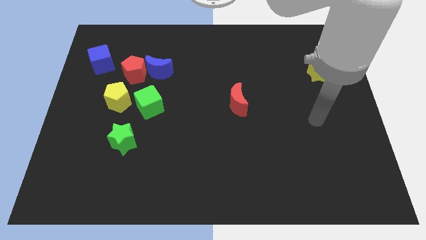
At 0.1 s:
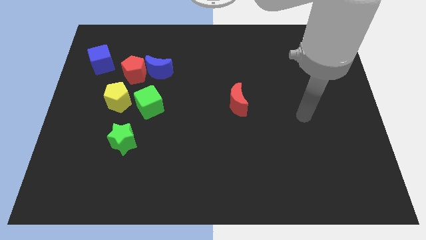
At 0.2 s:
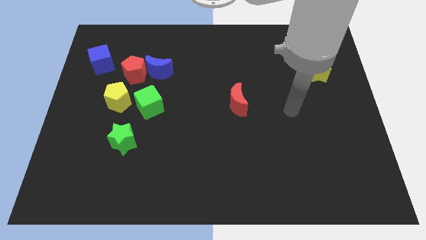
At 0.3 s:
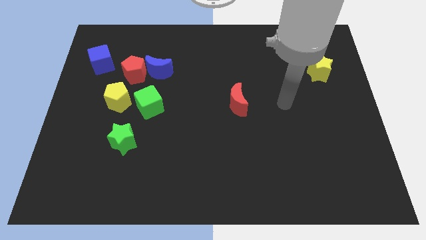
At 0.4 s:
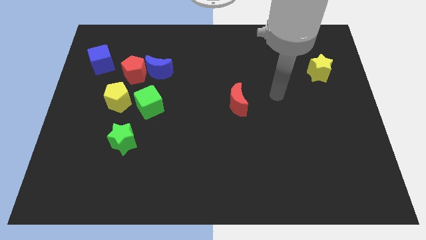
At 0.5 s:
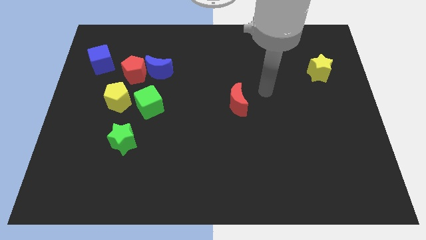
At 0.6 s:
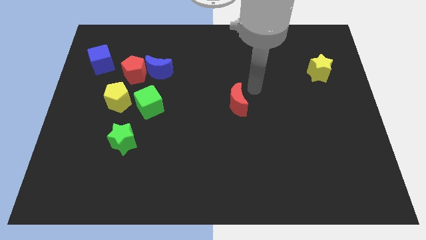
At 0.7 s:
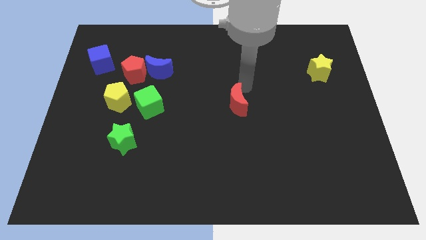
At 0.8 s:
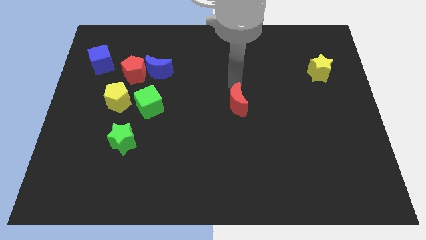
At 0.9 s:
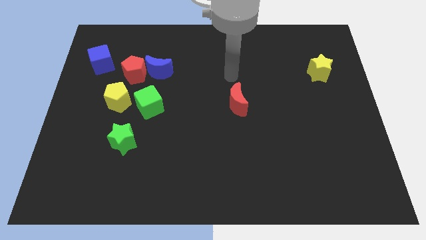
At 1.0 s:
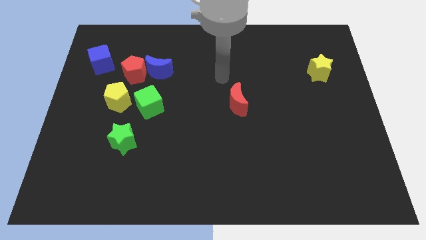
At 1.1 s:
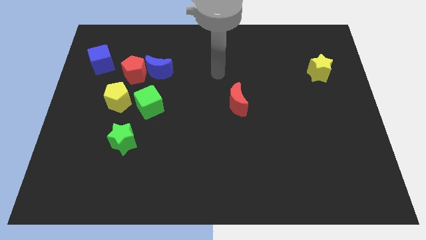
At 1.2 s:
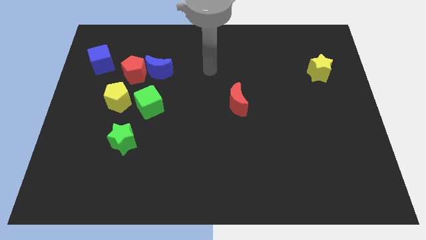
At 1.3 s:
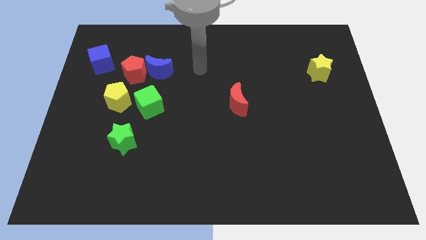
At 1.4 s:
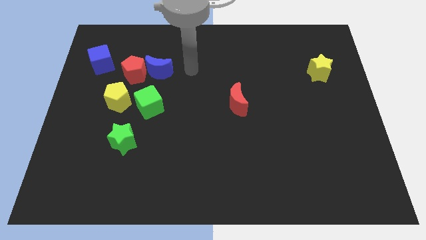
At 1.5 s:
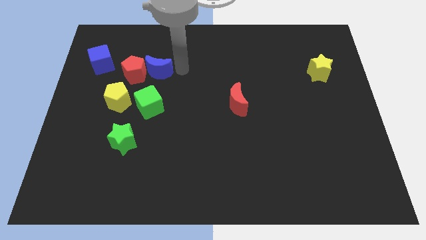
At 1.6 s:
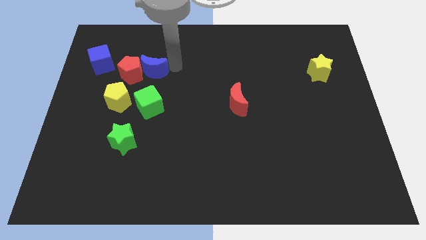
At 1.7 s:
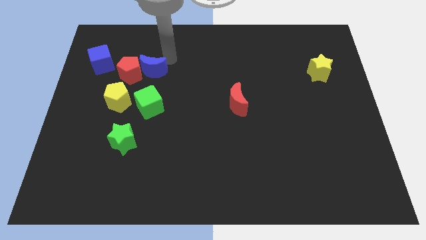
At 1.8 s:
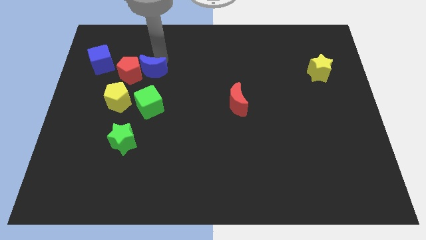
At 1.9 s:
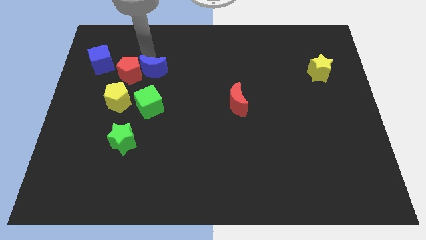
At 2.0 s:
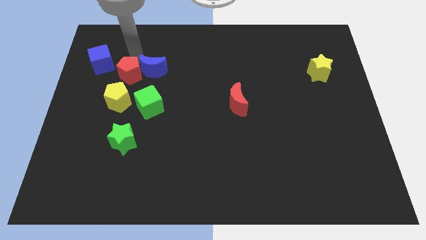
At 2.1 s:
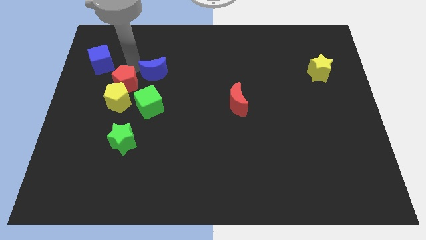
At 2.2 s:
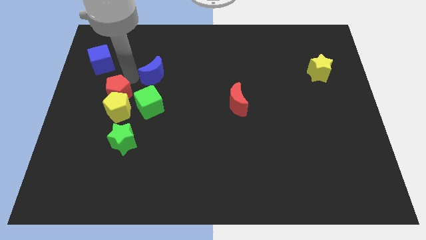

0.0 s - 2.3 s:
pull the blue moon apart from the red pentagon

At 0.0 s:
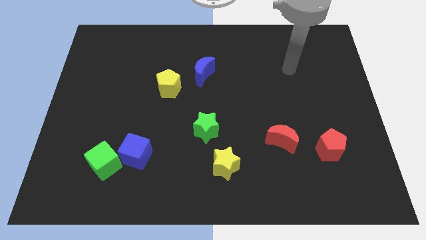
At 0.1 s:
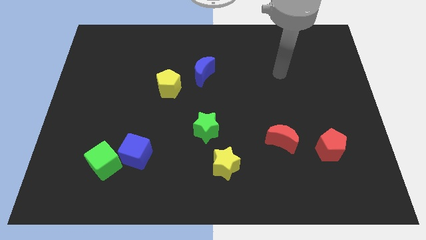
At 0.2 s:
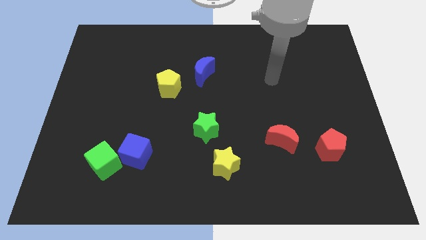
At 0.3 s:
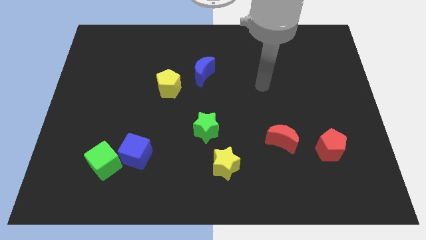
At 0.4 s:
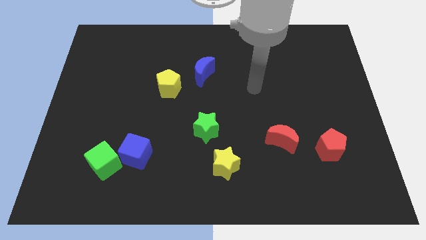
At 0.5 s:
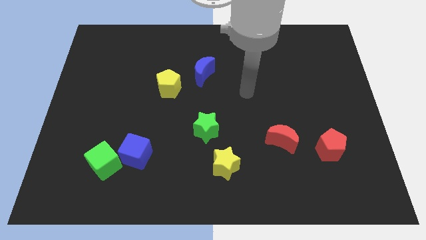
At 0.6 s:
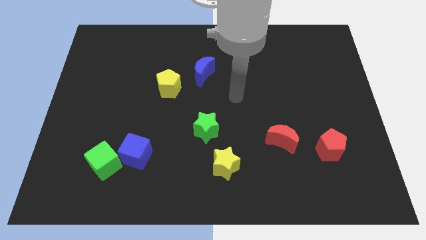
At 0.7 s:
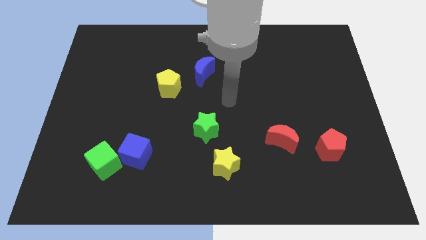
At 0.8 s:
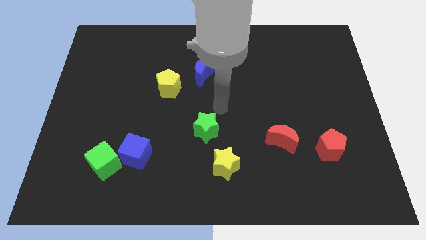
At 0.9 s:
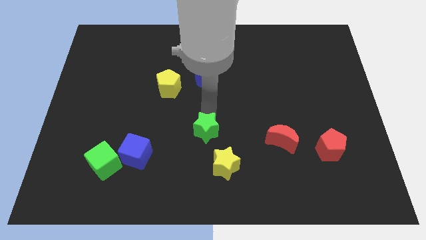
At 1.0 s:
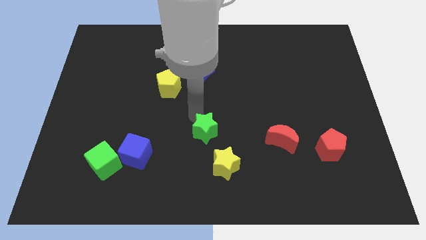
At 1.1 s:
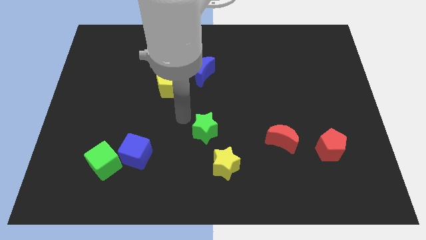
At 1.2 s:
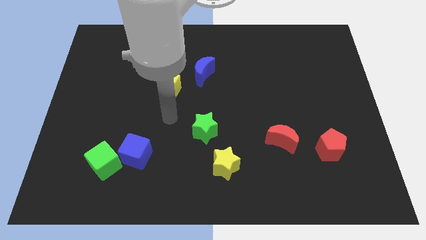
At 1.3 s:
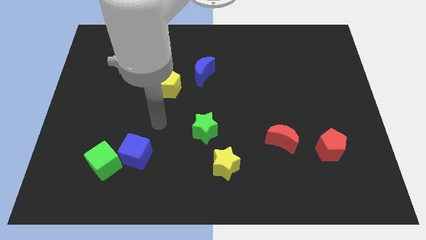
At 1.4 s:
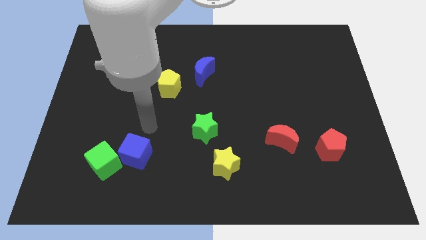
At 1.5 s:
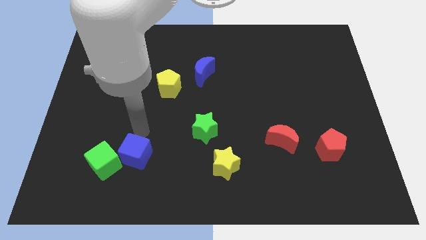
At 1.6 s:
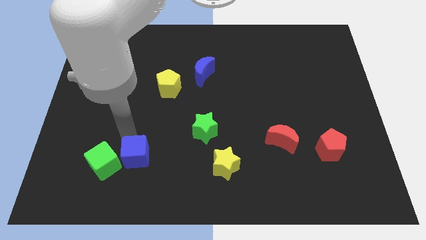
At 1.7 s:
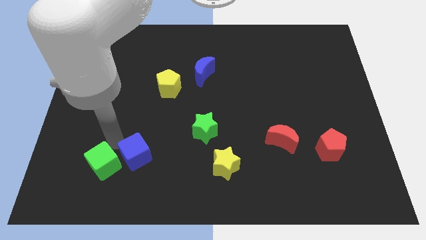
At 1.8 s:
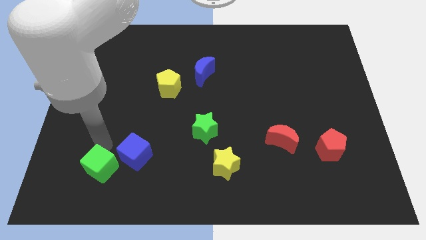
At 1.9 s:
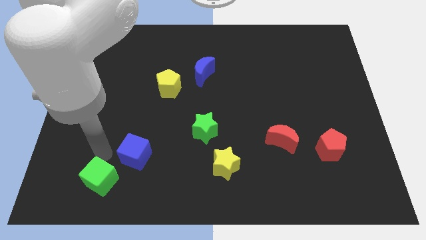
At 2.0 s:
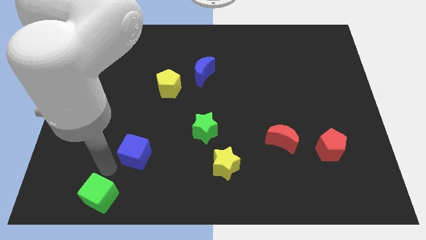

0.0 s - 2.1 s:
separate the blue cube from the green cube

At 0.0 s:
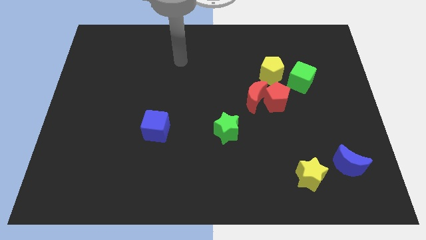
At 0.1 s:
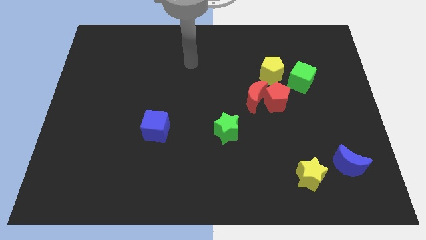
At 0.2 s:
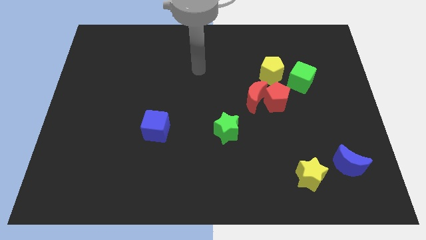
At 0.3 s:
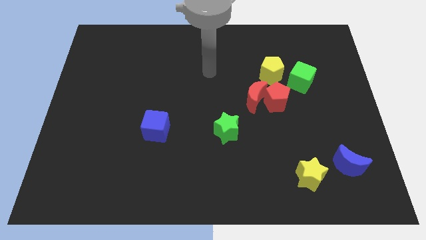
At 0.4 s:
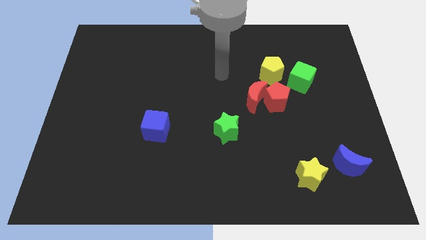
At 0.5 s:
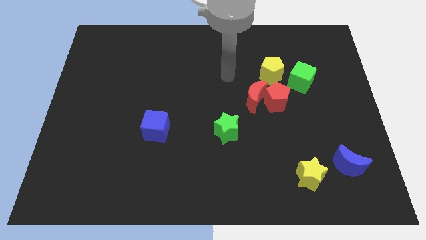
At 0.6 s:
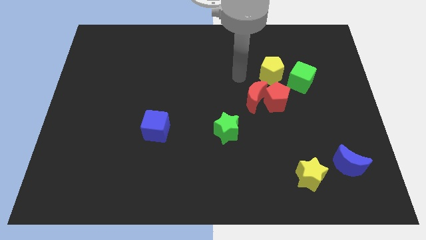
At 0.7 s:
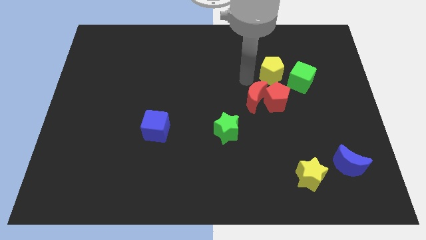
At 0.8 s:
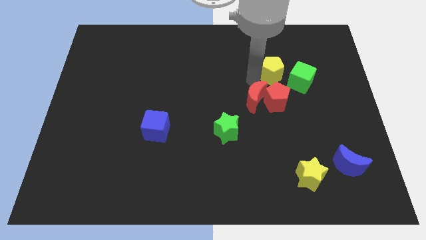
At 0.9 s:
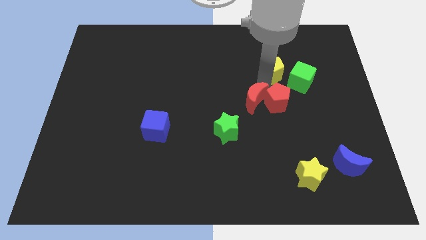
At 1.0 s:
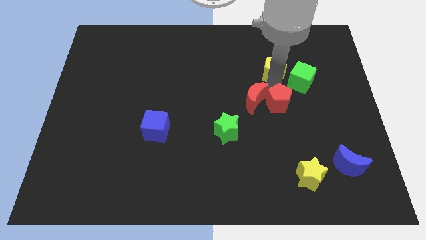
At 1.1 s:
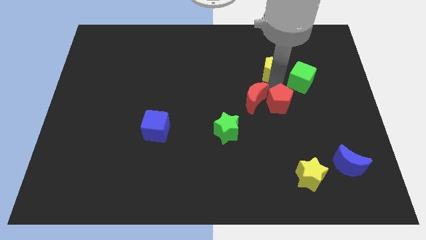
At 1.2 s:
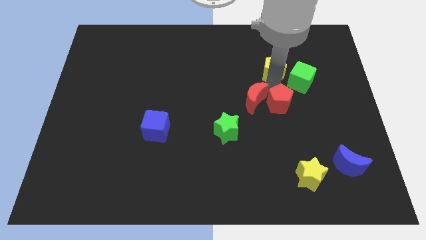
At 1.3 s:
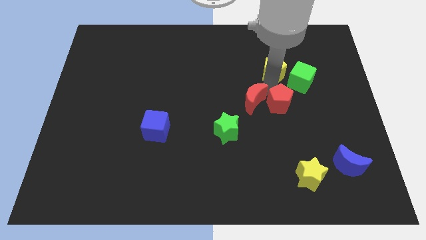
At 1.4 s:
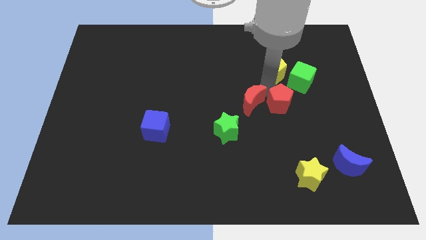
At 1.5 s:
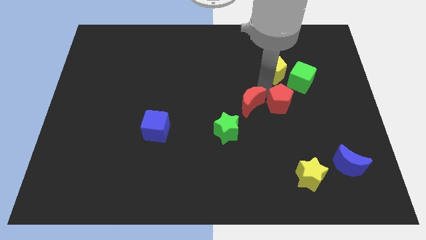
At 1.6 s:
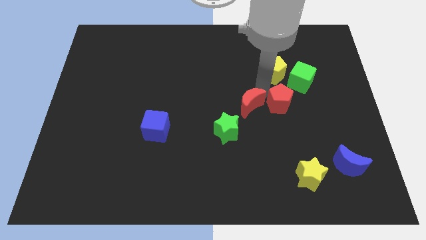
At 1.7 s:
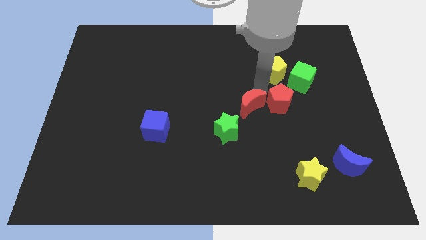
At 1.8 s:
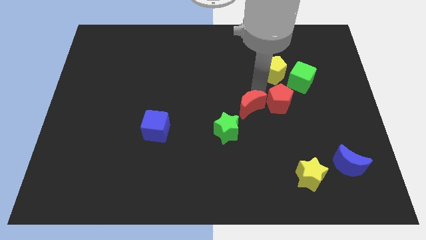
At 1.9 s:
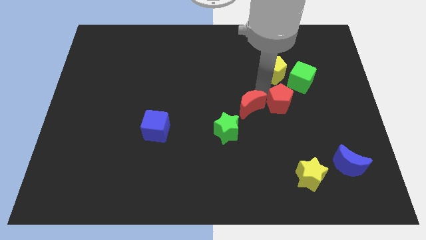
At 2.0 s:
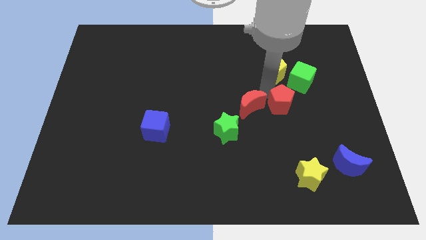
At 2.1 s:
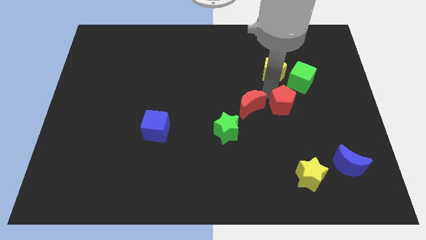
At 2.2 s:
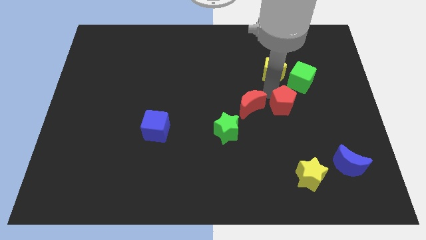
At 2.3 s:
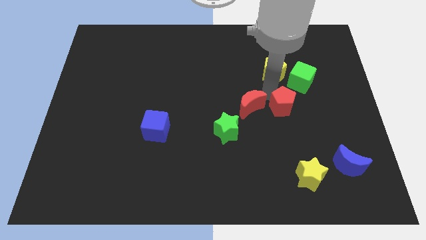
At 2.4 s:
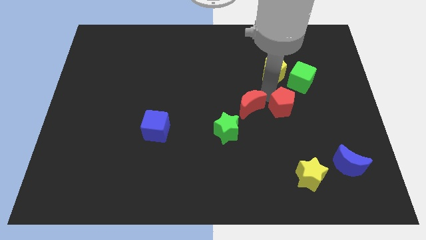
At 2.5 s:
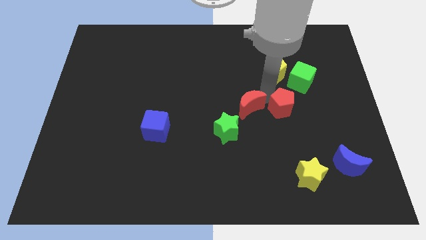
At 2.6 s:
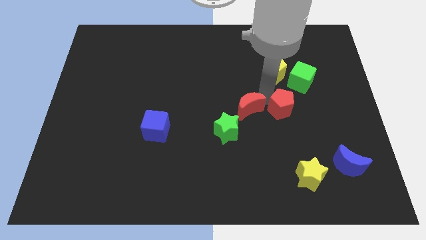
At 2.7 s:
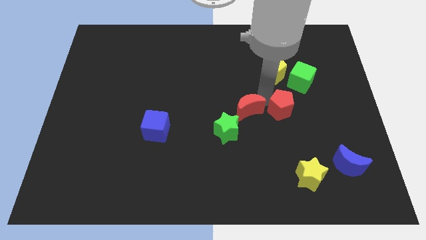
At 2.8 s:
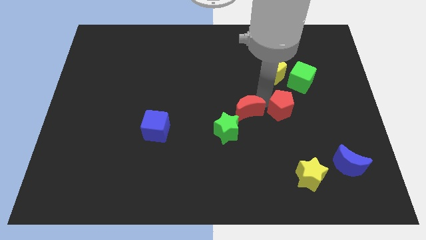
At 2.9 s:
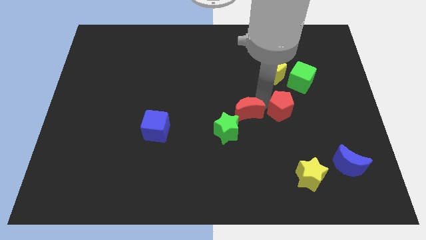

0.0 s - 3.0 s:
pull the red moon apart from the red pentagon and yellow pentagon

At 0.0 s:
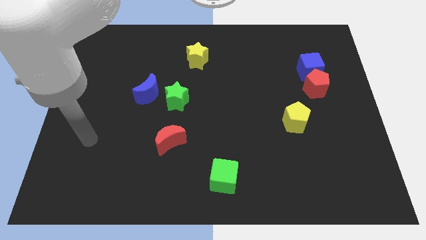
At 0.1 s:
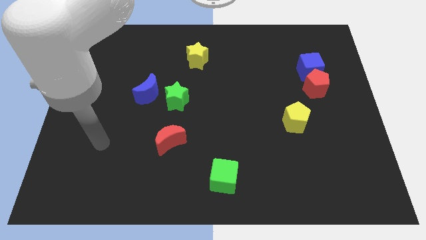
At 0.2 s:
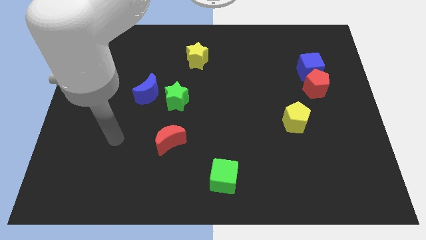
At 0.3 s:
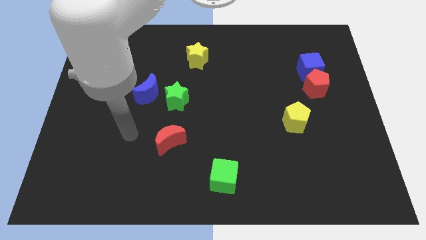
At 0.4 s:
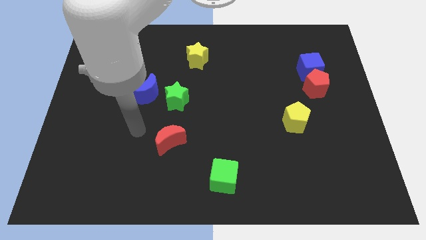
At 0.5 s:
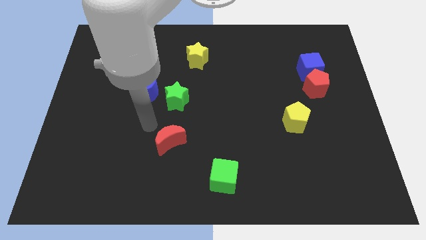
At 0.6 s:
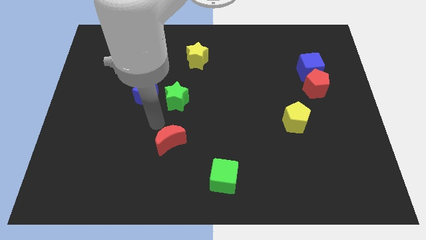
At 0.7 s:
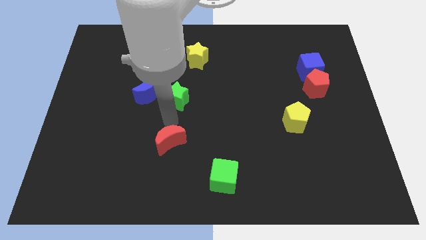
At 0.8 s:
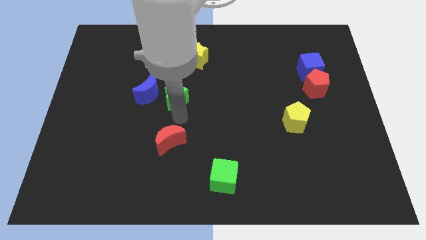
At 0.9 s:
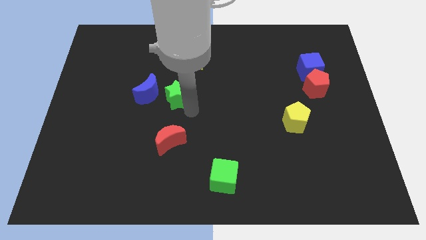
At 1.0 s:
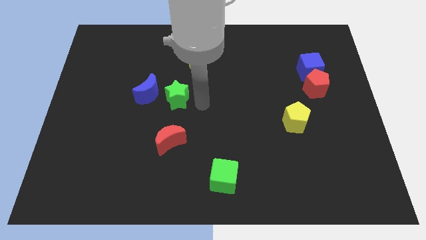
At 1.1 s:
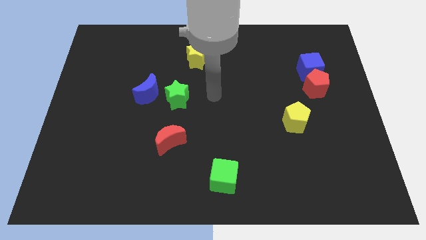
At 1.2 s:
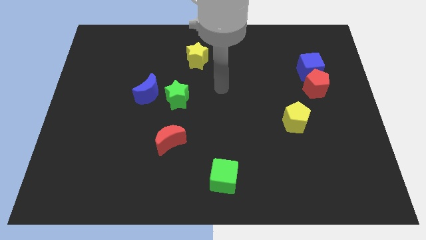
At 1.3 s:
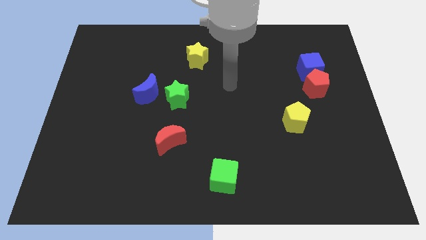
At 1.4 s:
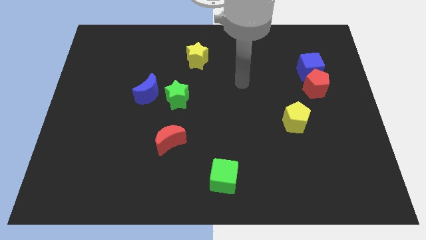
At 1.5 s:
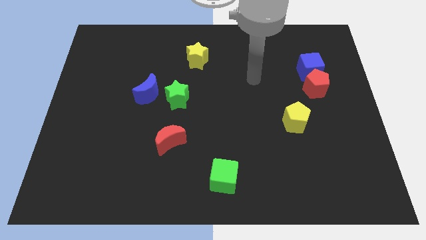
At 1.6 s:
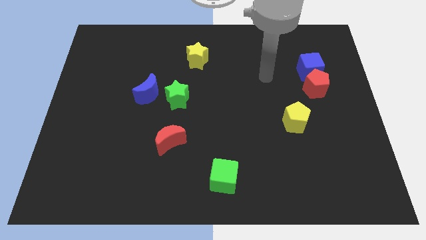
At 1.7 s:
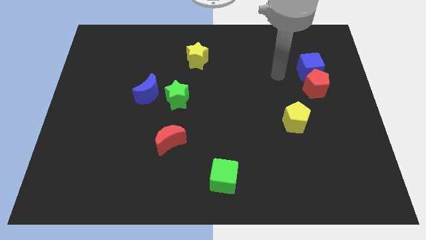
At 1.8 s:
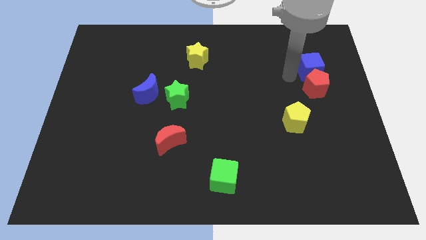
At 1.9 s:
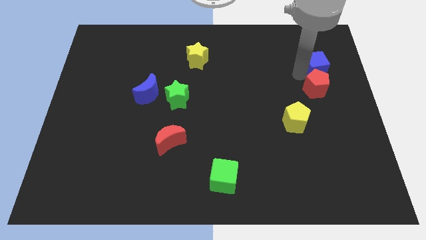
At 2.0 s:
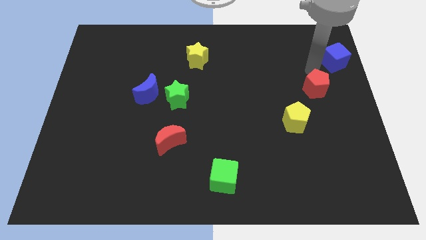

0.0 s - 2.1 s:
move the red pentagon away from the blue cube
